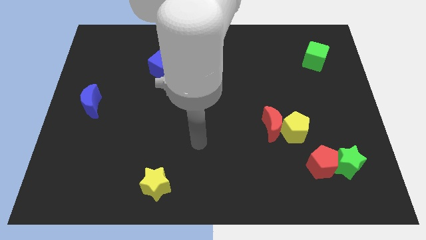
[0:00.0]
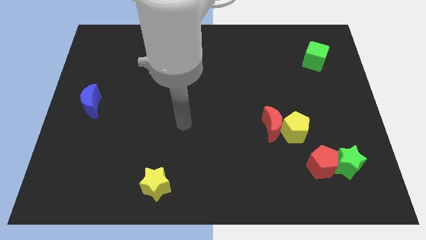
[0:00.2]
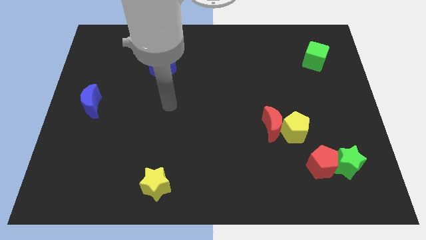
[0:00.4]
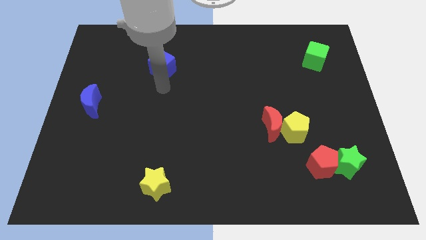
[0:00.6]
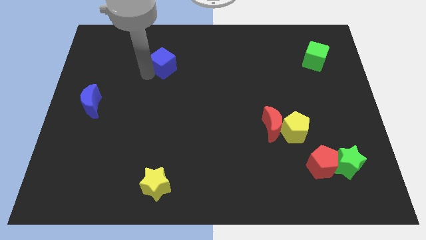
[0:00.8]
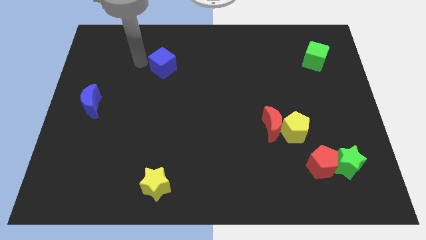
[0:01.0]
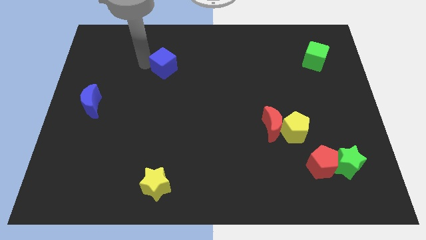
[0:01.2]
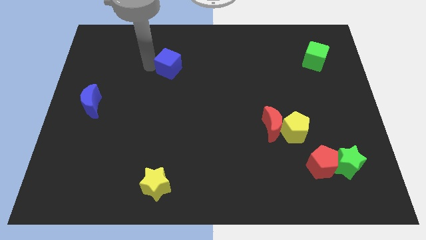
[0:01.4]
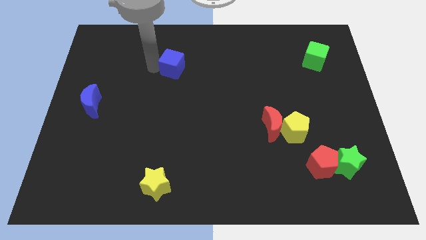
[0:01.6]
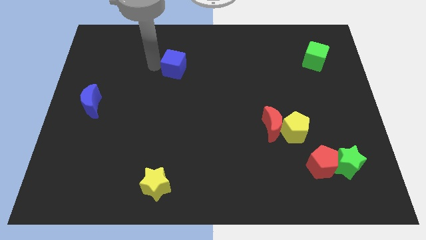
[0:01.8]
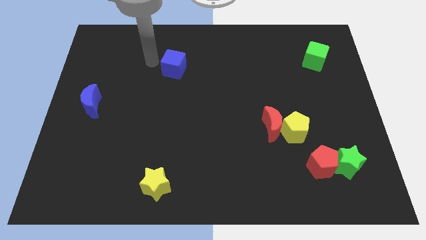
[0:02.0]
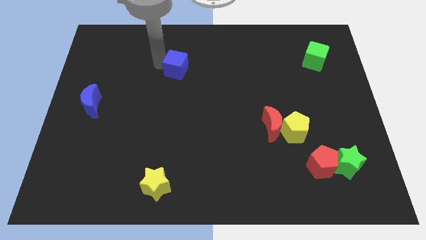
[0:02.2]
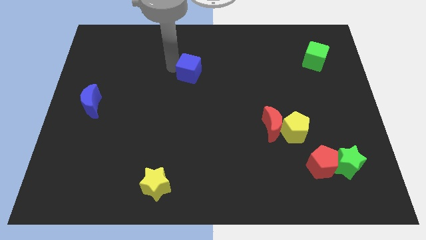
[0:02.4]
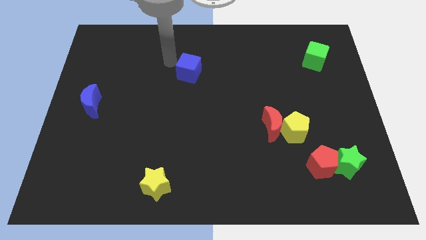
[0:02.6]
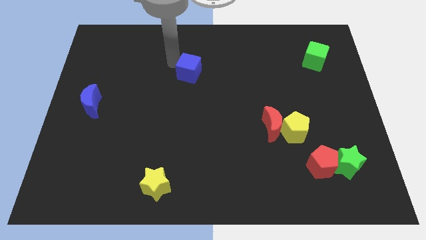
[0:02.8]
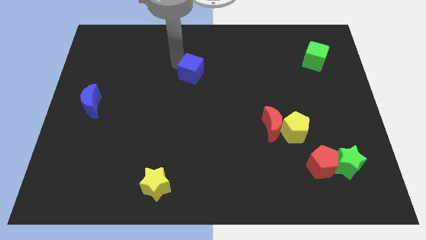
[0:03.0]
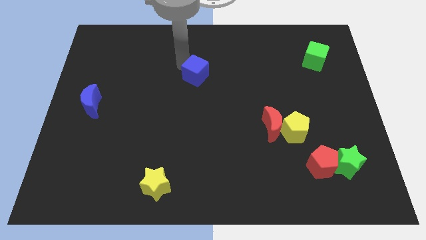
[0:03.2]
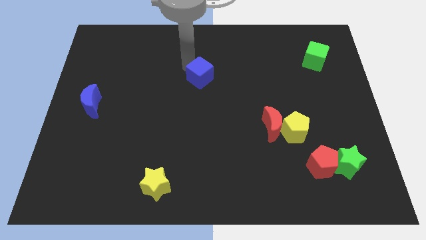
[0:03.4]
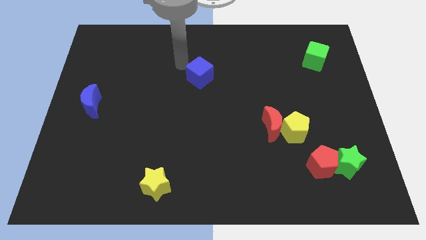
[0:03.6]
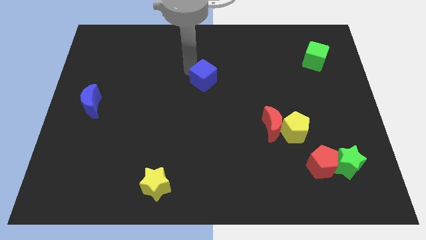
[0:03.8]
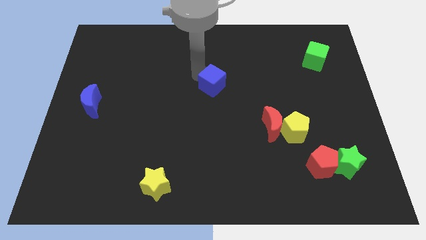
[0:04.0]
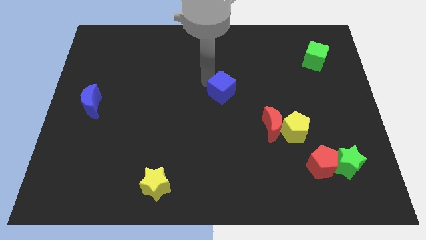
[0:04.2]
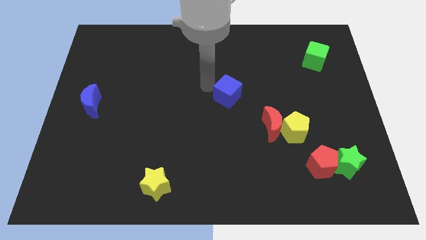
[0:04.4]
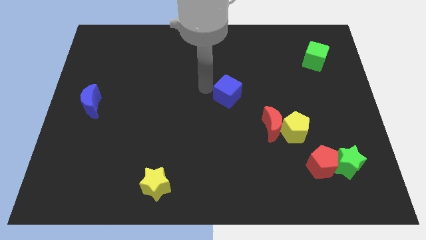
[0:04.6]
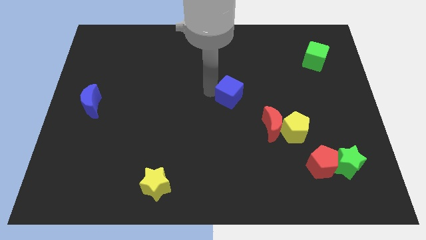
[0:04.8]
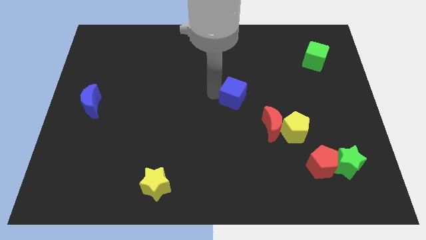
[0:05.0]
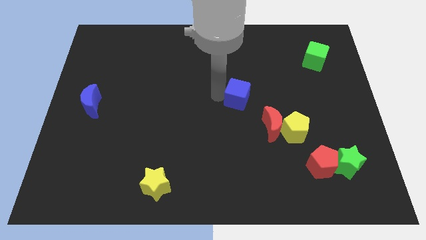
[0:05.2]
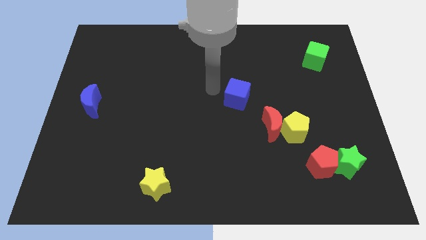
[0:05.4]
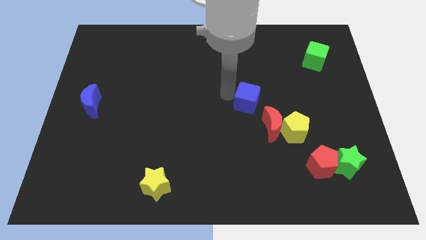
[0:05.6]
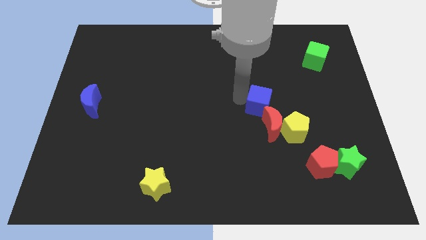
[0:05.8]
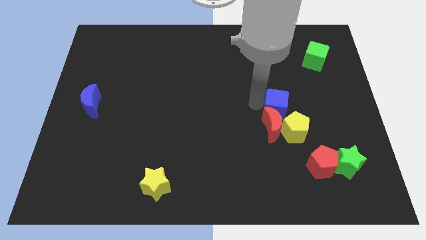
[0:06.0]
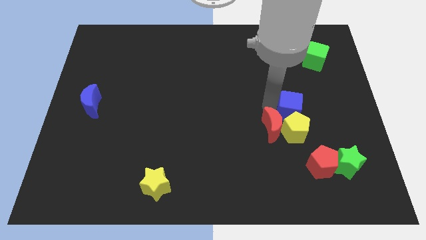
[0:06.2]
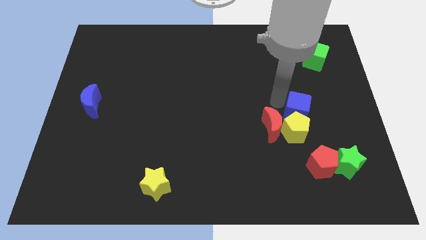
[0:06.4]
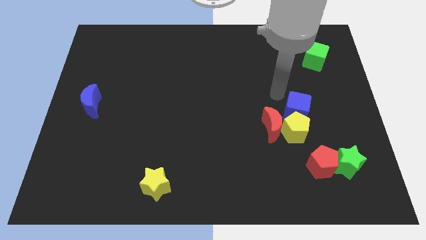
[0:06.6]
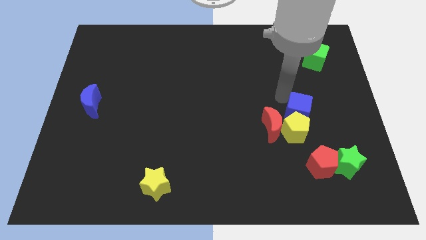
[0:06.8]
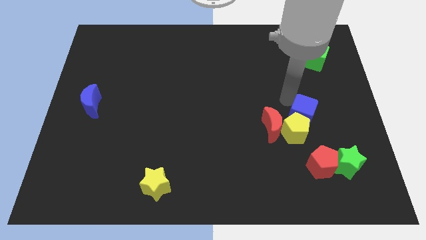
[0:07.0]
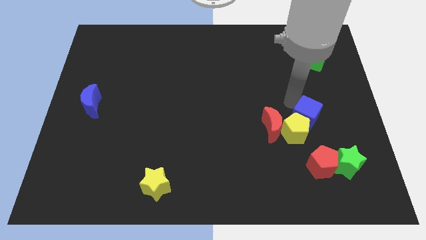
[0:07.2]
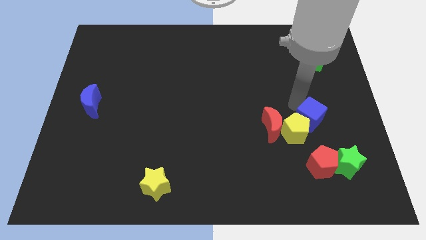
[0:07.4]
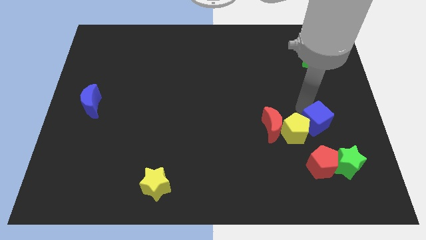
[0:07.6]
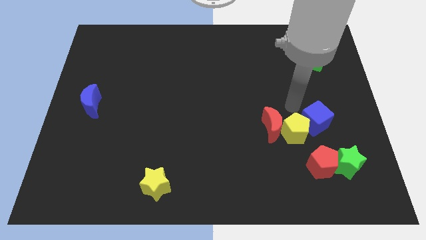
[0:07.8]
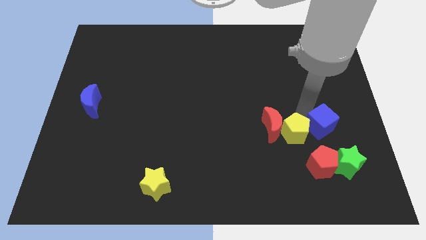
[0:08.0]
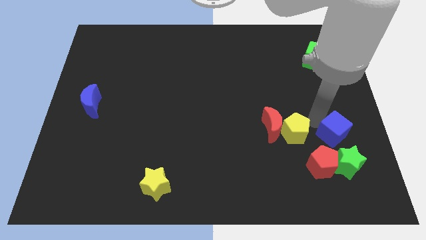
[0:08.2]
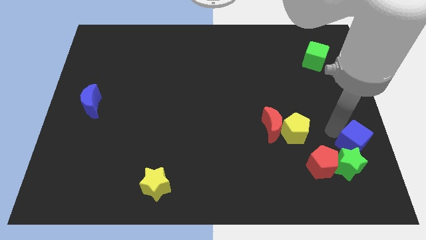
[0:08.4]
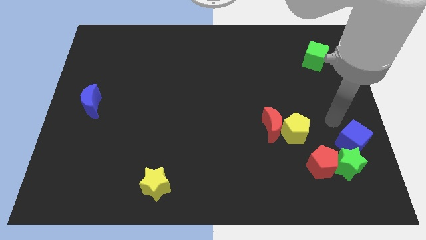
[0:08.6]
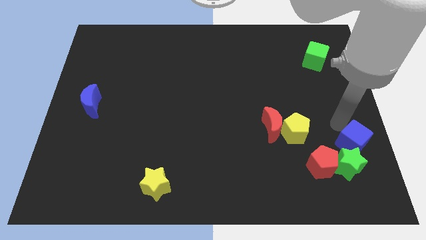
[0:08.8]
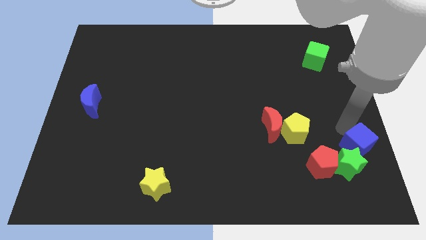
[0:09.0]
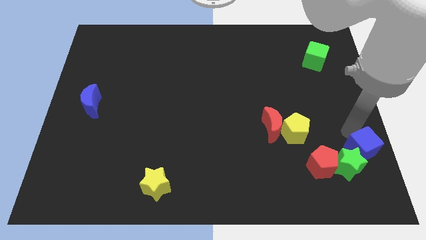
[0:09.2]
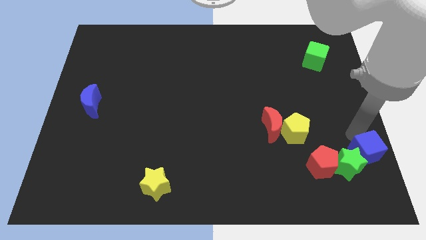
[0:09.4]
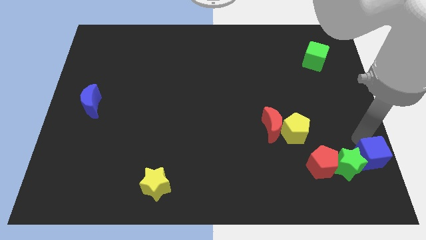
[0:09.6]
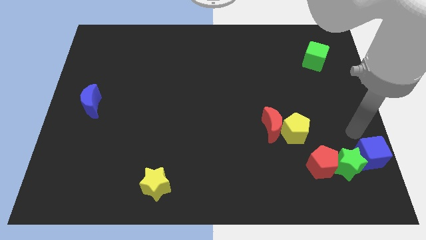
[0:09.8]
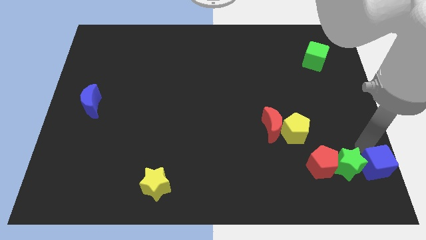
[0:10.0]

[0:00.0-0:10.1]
push the blue cube to the bottom right of the board

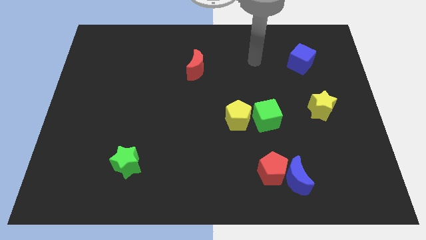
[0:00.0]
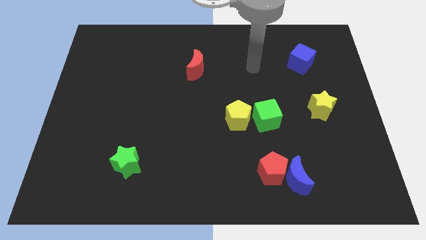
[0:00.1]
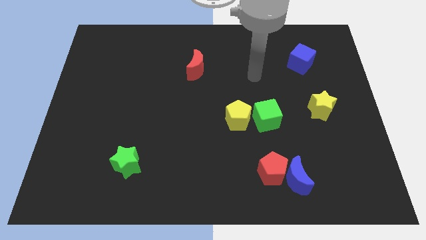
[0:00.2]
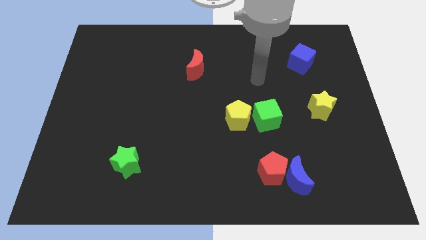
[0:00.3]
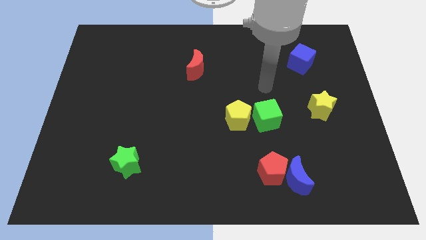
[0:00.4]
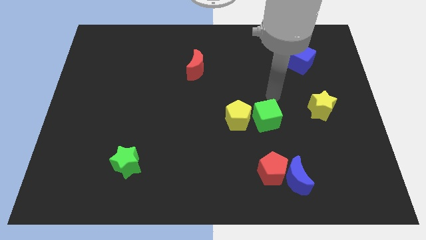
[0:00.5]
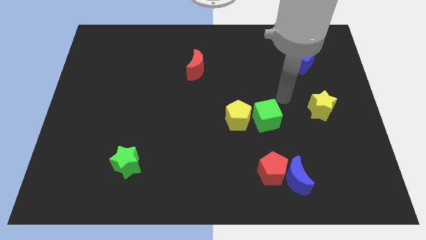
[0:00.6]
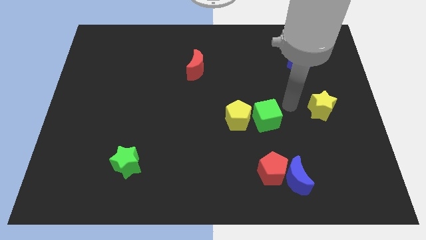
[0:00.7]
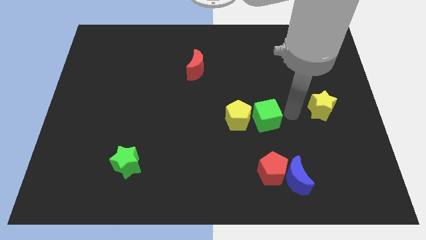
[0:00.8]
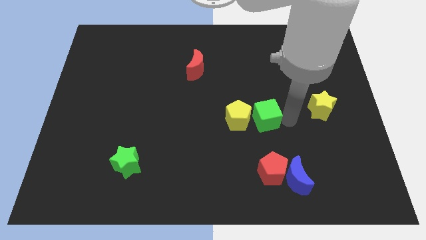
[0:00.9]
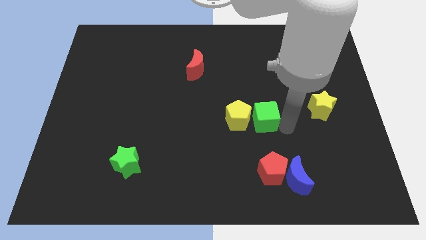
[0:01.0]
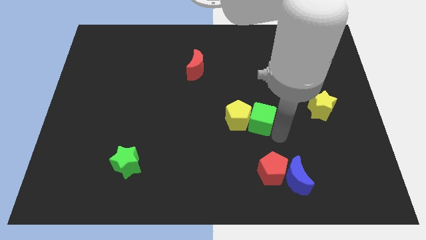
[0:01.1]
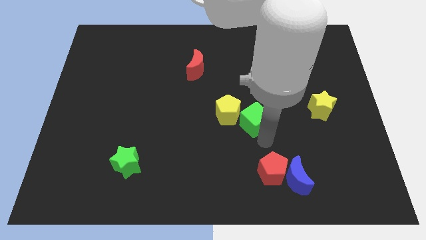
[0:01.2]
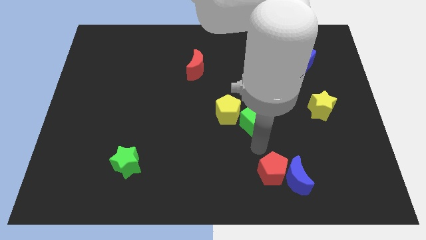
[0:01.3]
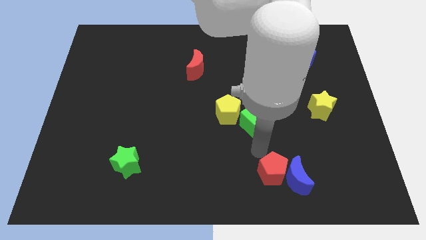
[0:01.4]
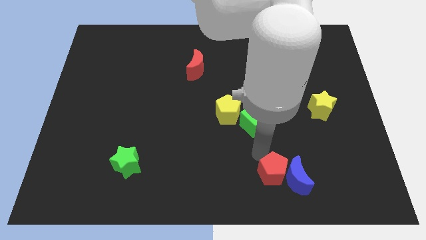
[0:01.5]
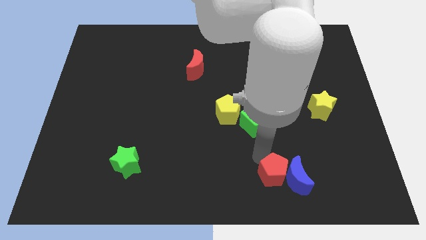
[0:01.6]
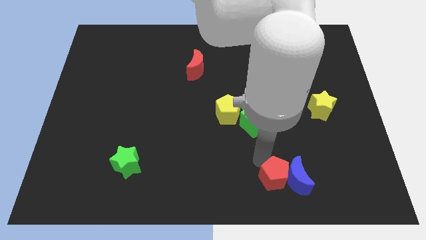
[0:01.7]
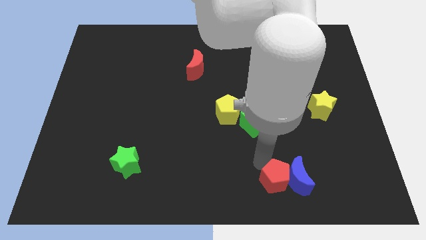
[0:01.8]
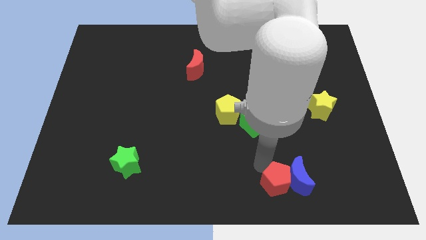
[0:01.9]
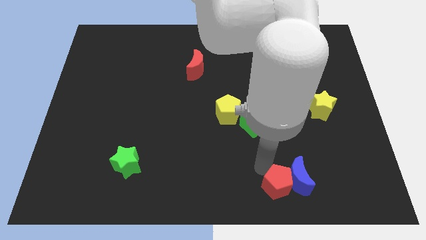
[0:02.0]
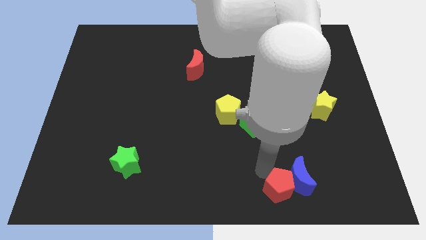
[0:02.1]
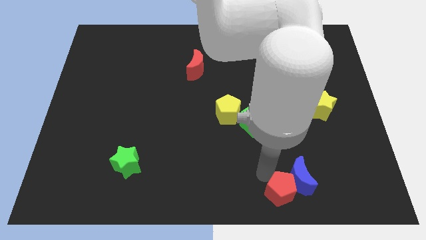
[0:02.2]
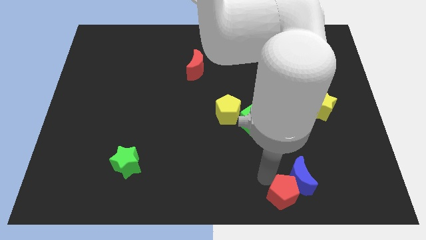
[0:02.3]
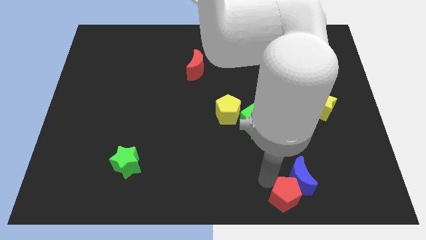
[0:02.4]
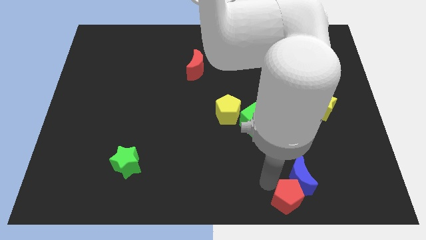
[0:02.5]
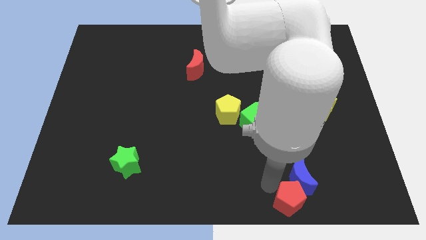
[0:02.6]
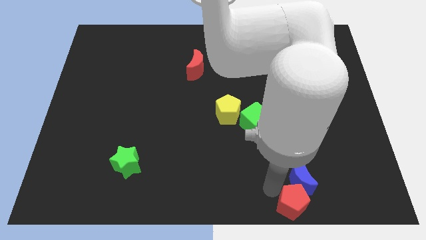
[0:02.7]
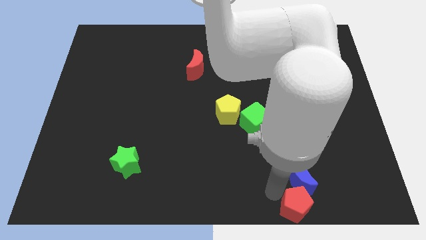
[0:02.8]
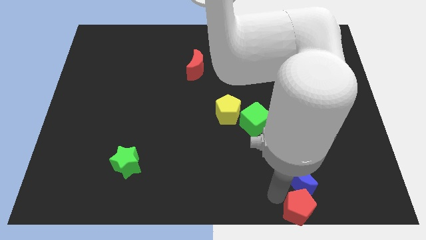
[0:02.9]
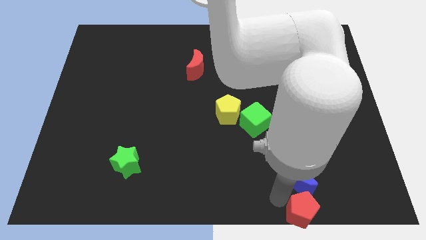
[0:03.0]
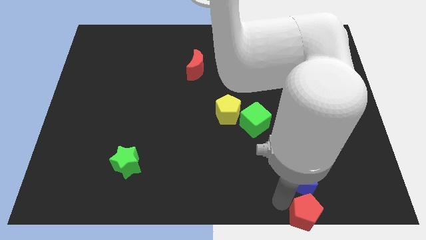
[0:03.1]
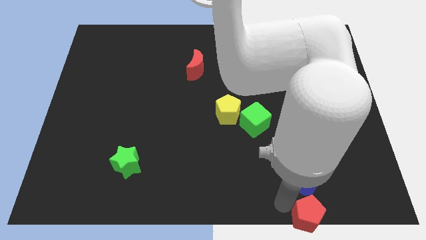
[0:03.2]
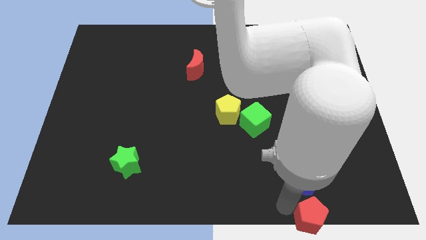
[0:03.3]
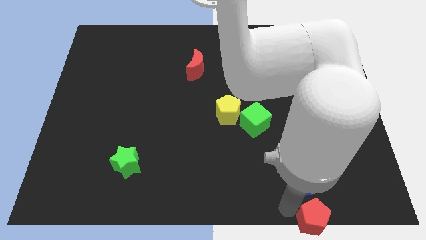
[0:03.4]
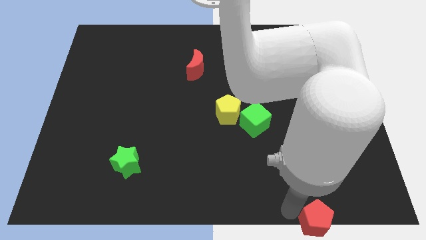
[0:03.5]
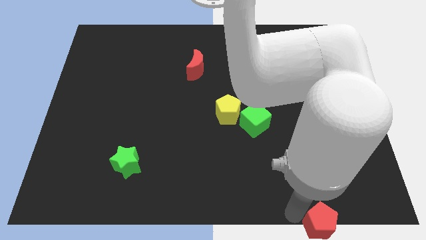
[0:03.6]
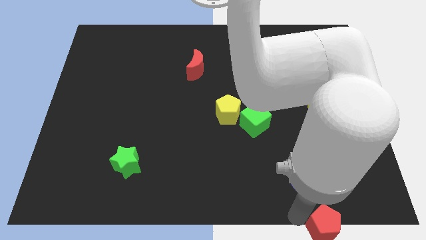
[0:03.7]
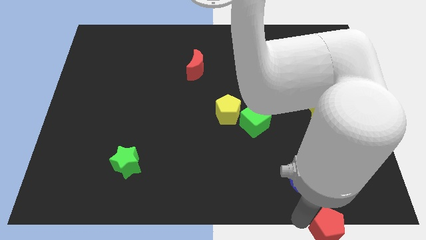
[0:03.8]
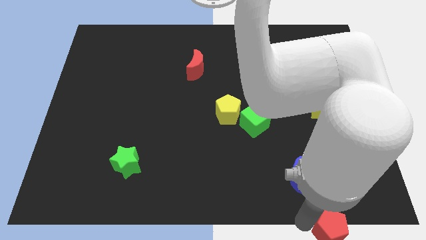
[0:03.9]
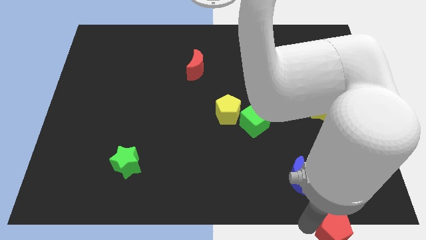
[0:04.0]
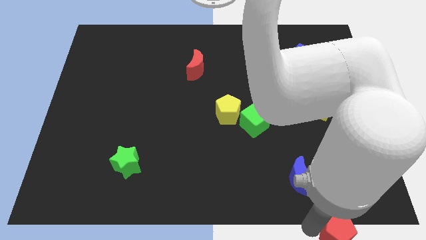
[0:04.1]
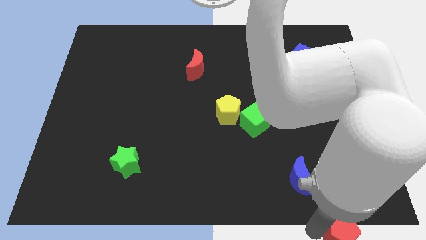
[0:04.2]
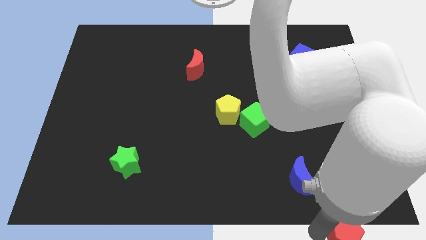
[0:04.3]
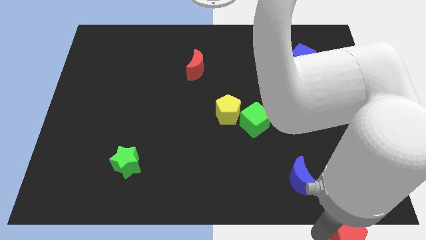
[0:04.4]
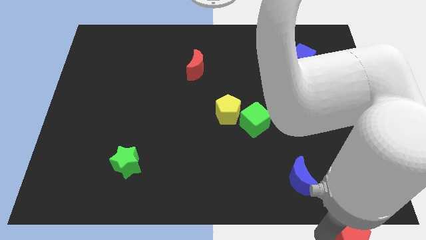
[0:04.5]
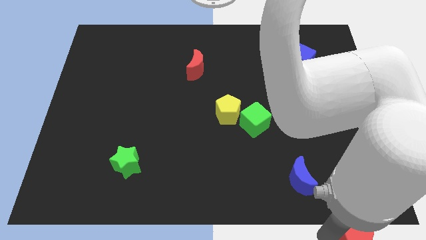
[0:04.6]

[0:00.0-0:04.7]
put the red pentagon to the lower right corner
